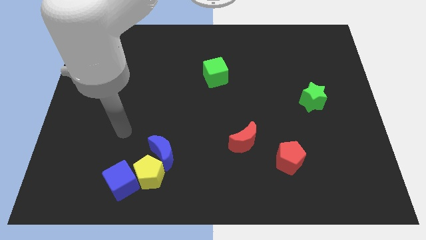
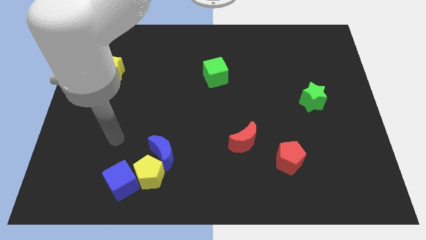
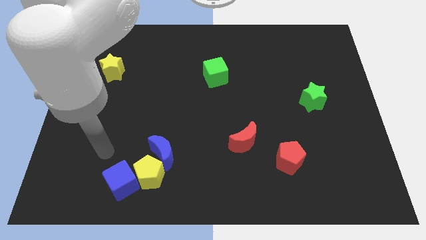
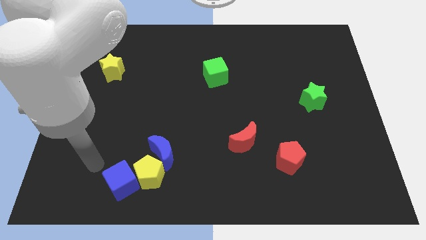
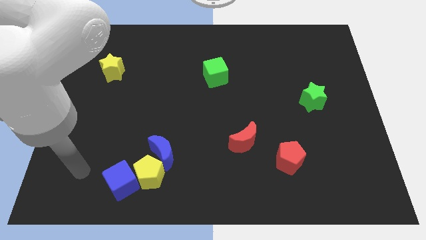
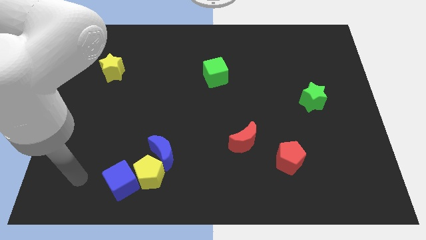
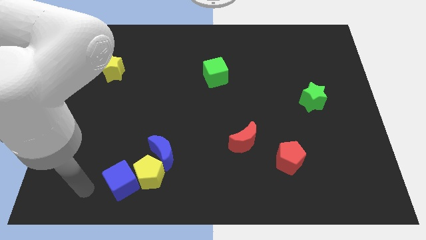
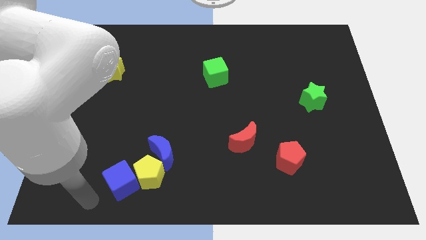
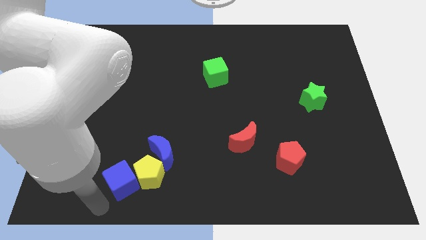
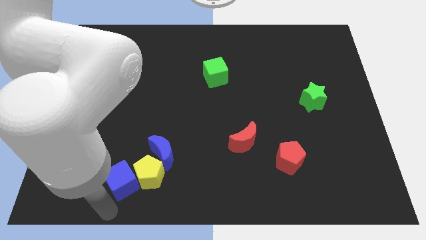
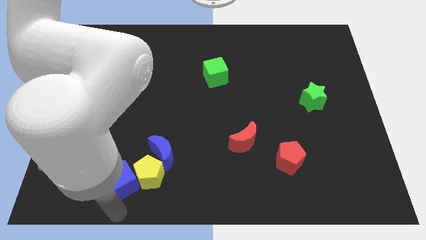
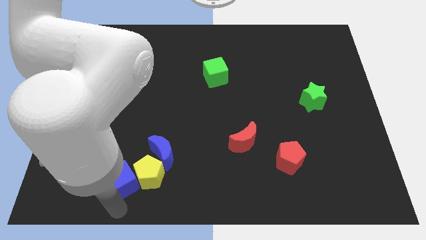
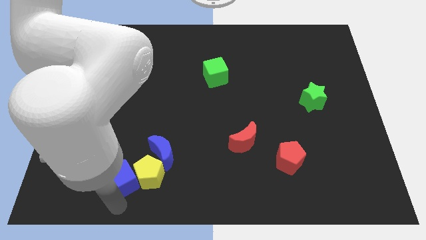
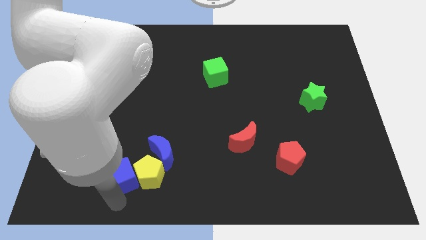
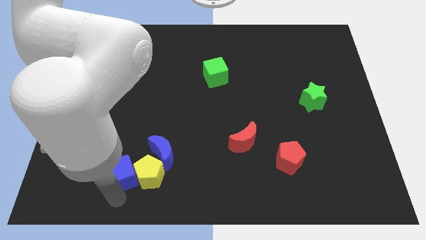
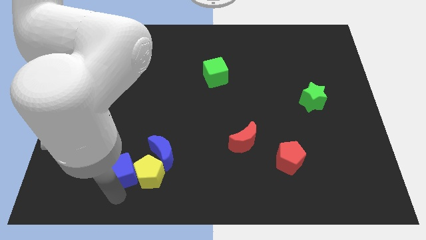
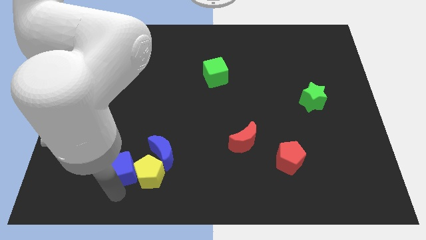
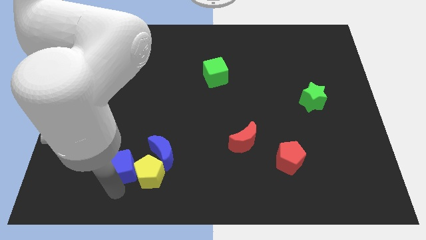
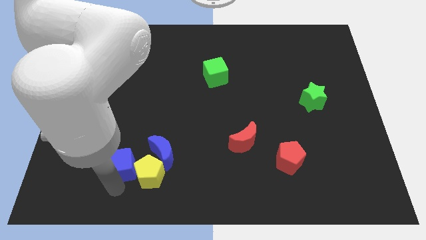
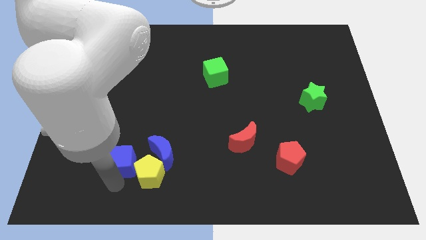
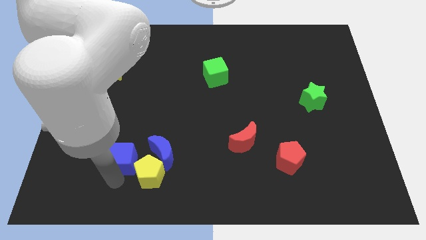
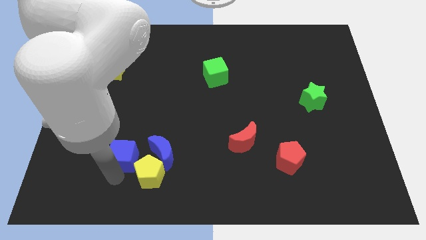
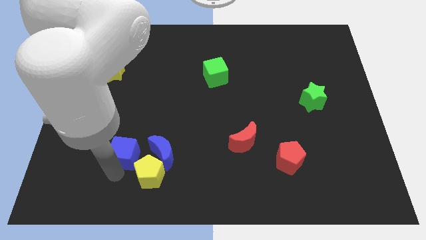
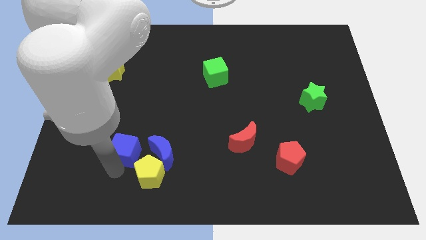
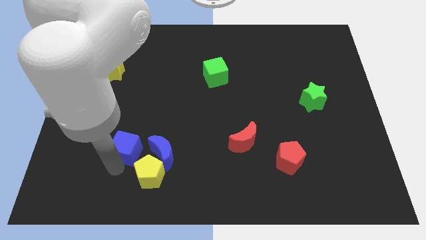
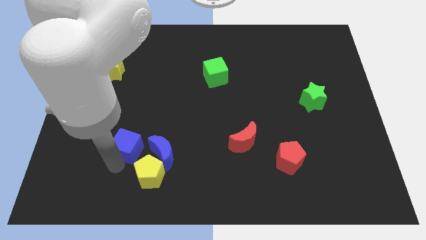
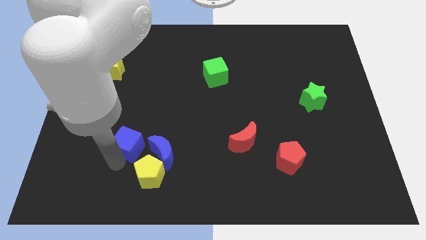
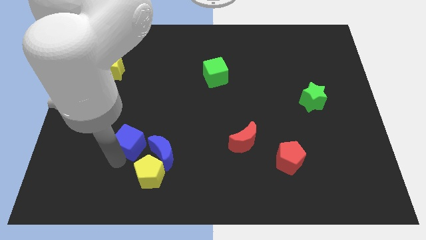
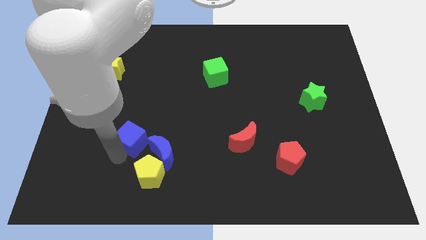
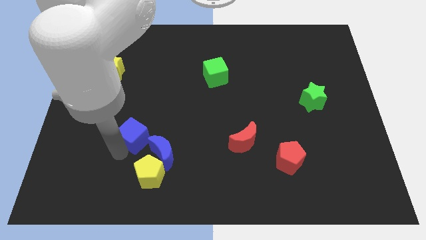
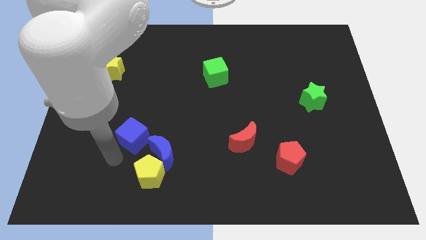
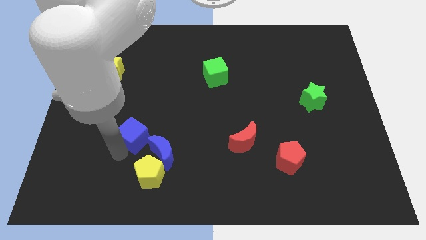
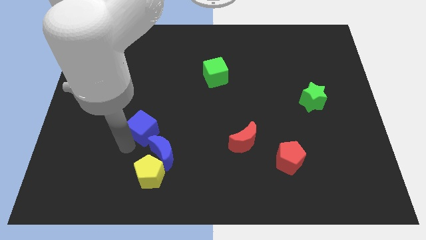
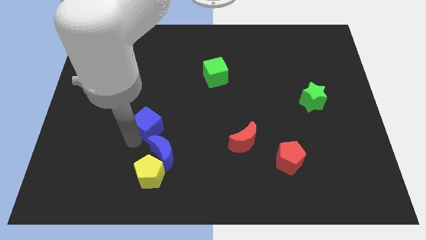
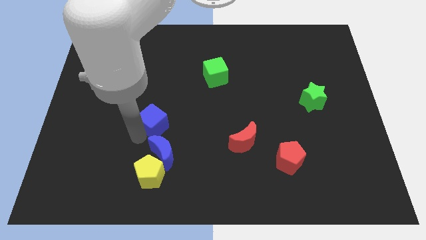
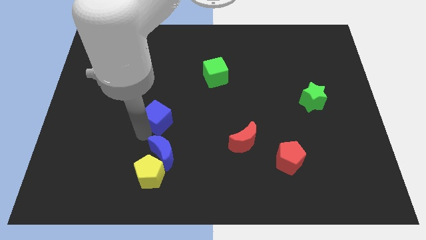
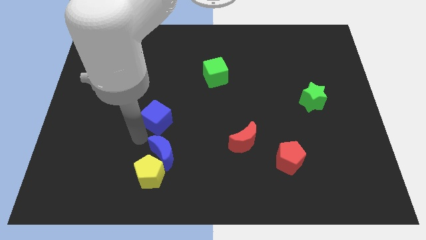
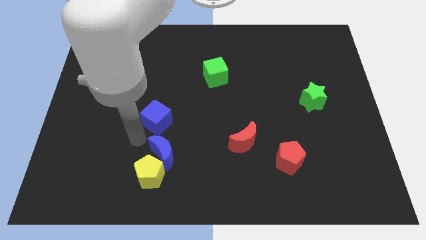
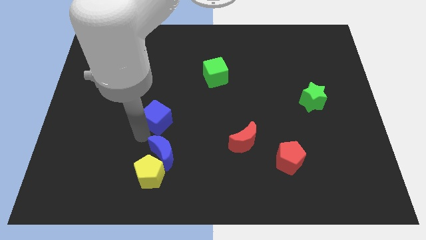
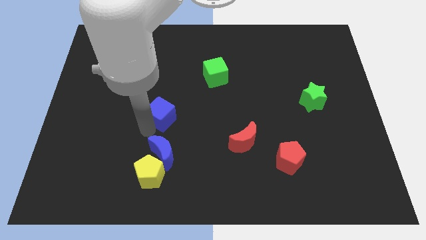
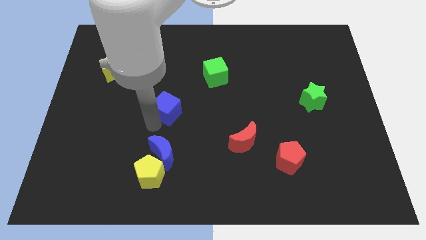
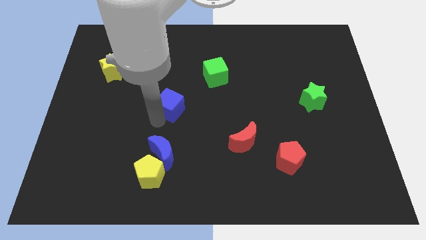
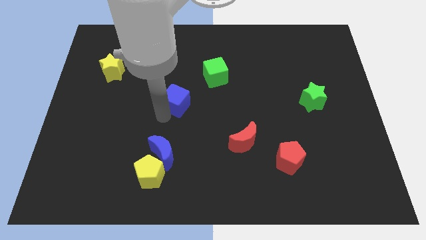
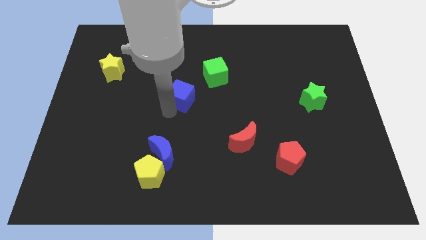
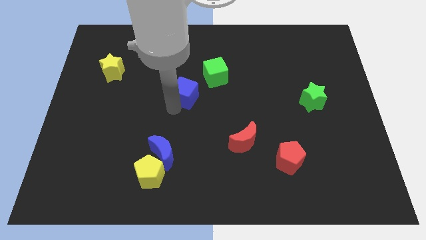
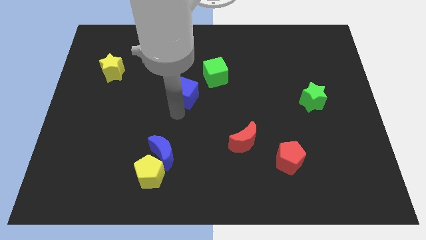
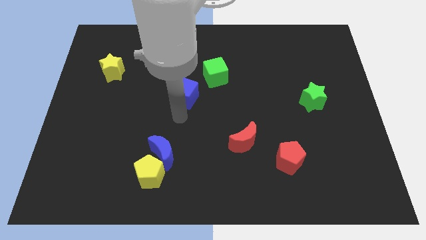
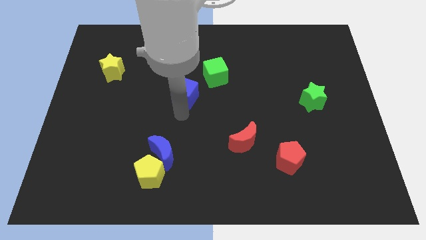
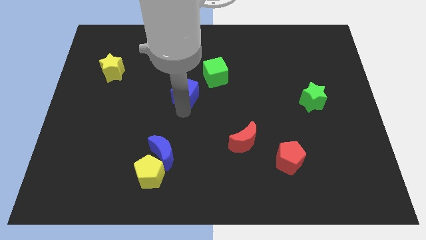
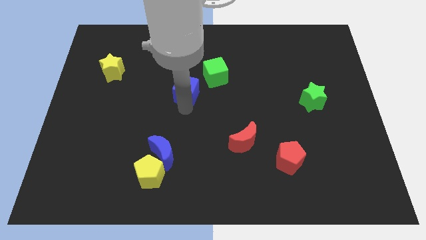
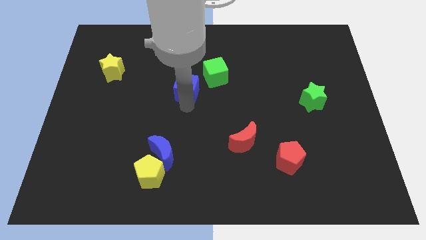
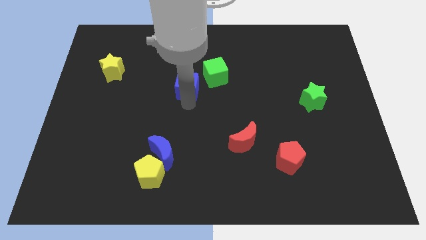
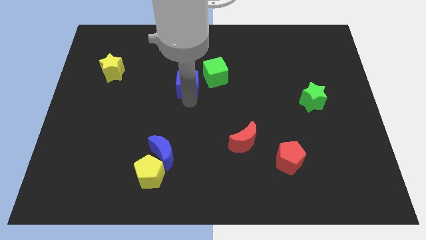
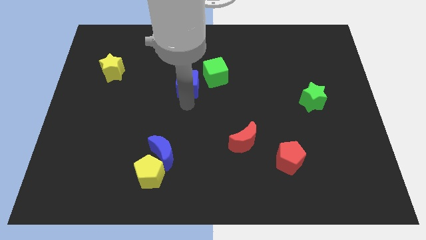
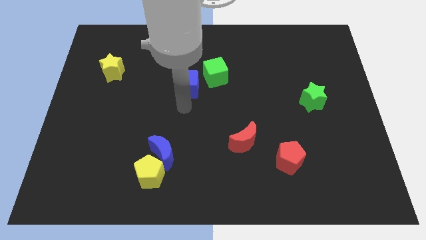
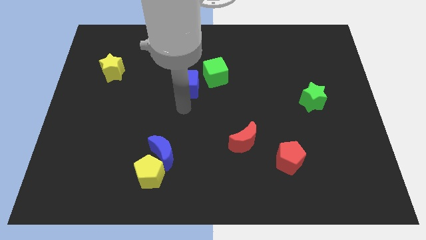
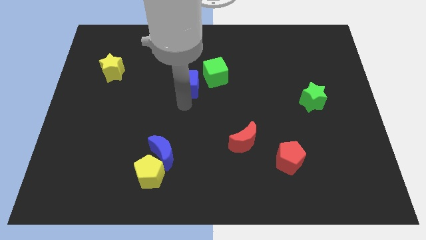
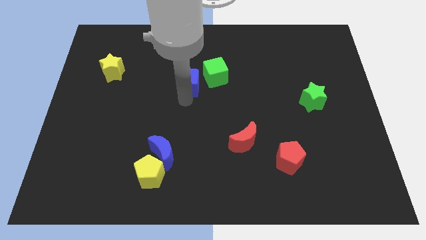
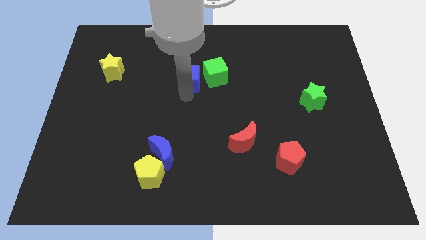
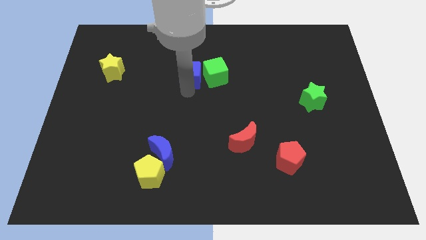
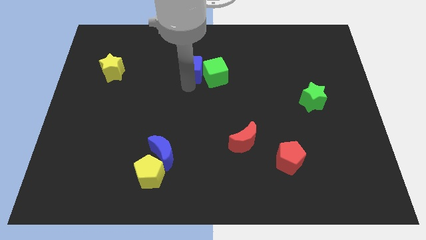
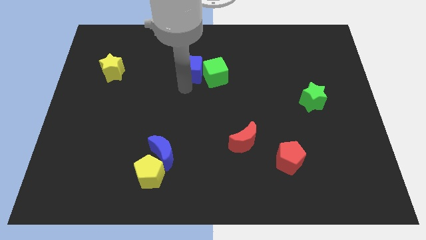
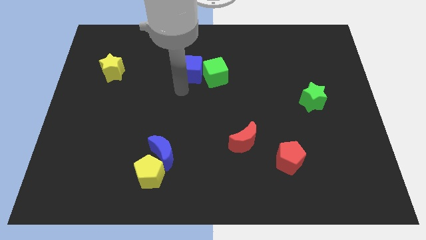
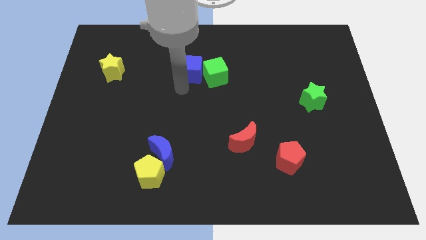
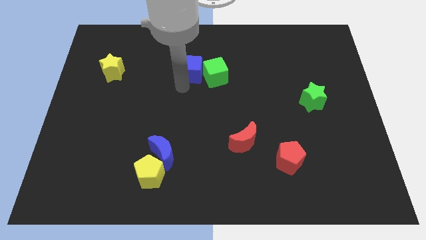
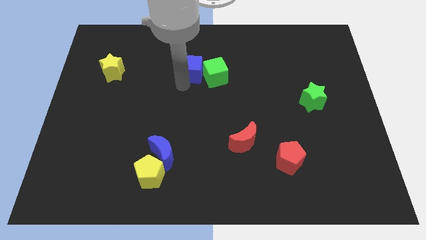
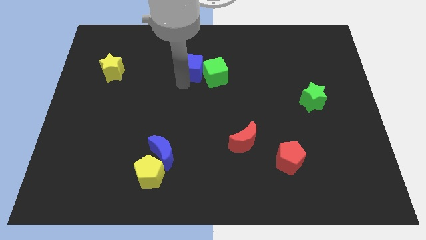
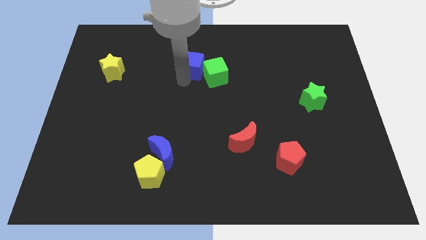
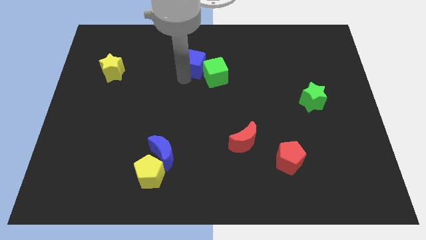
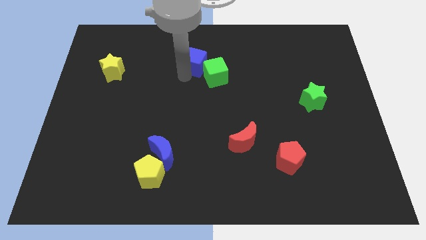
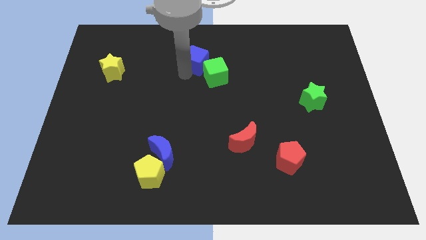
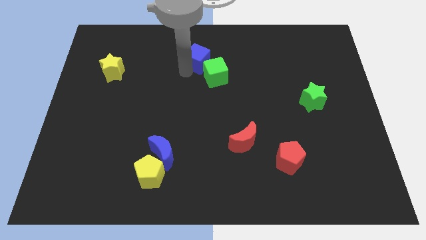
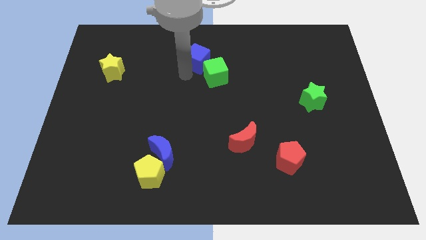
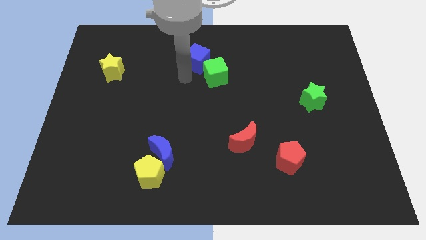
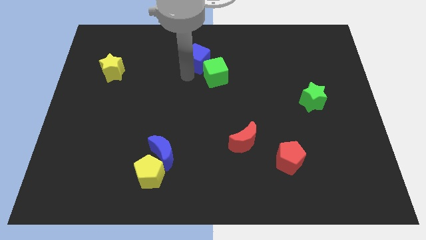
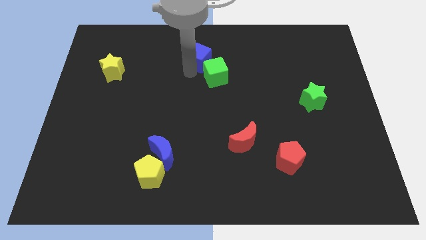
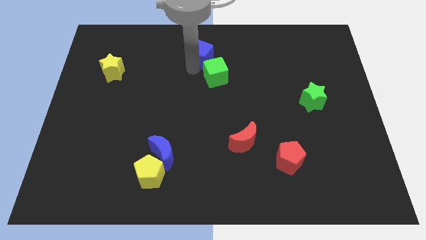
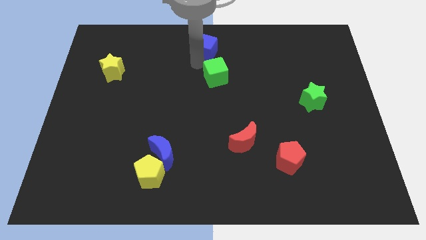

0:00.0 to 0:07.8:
push the blue cube to the top
